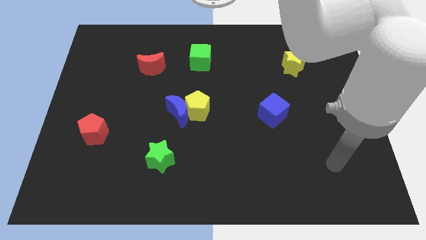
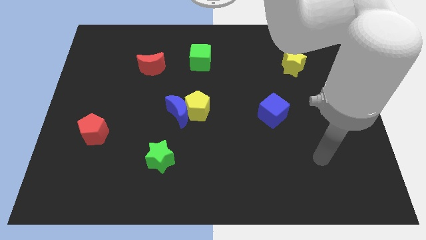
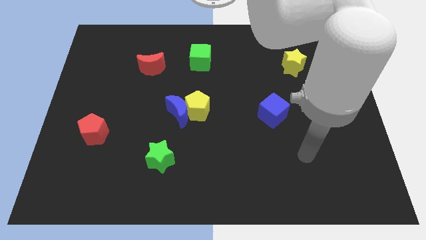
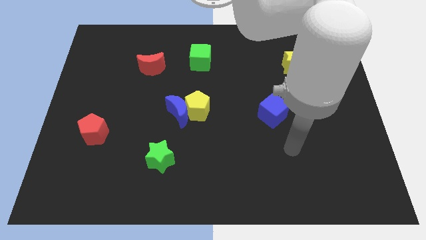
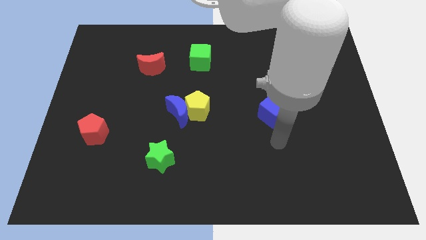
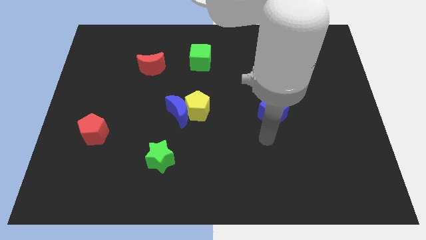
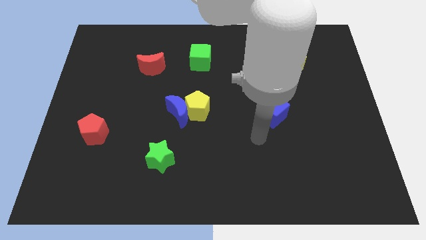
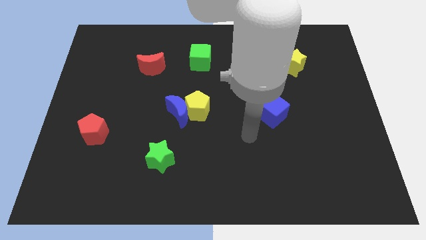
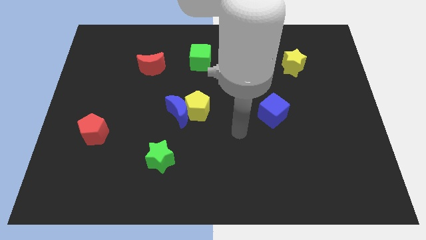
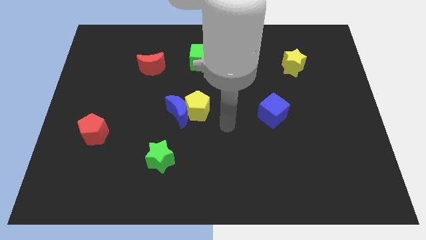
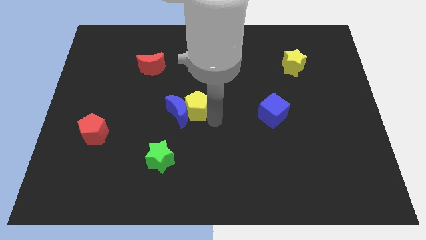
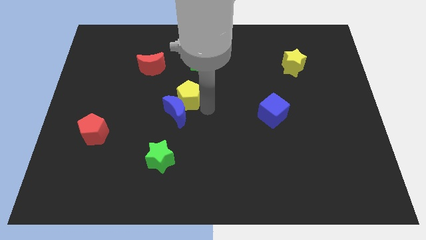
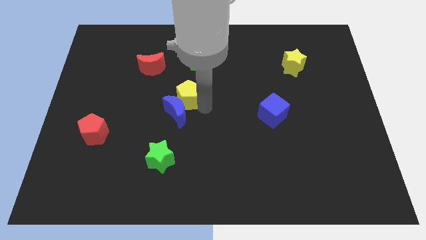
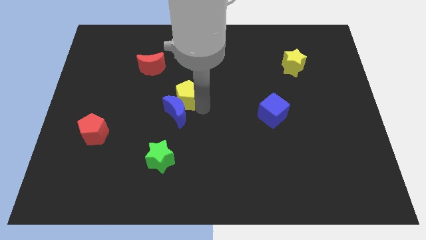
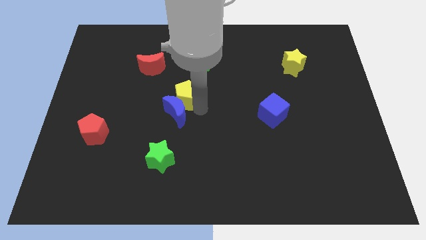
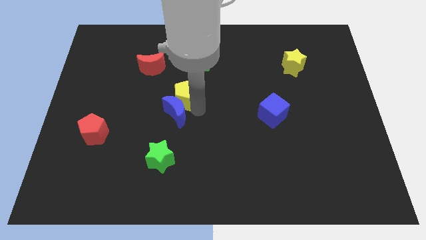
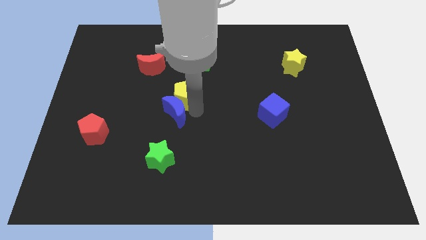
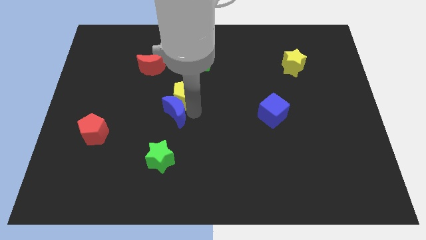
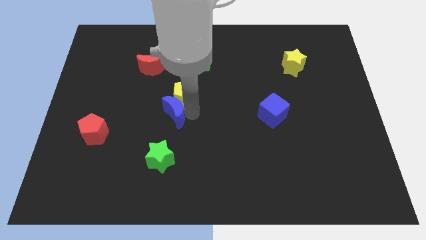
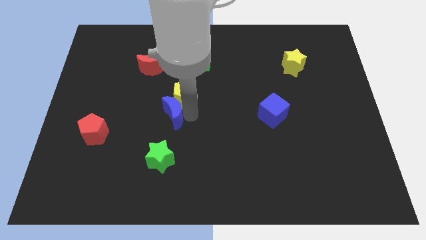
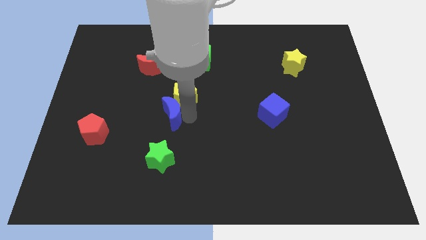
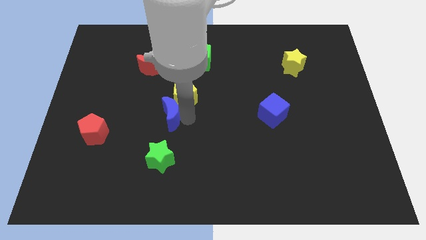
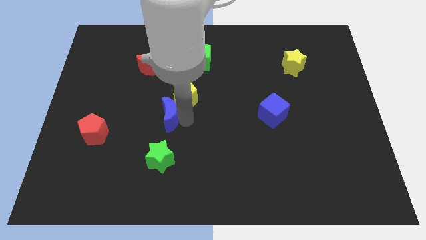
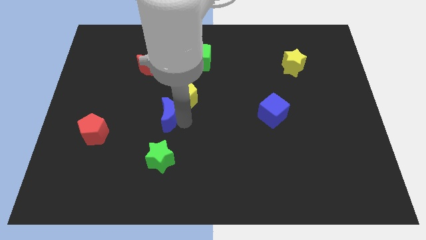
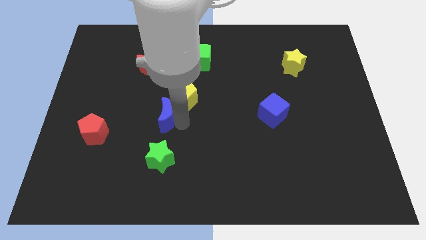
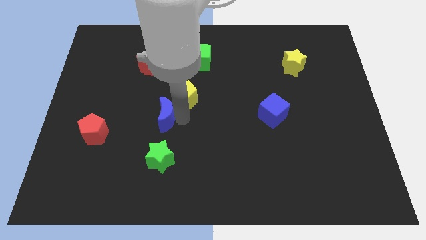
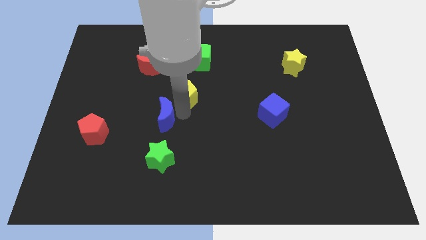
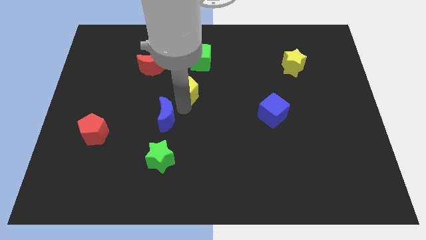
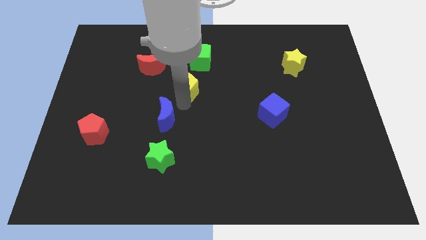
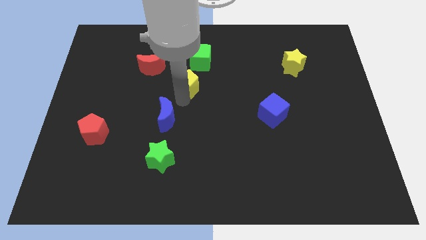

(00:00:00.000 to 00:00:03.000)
move the blue moon away from the yellow pentagon

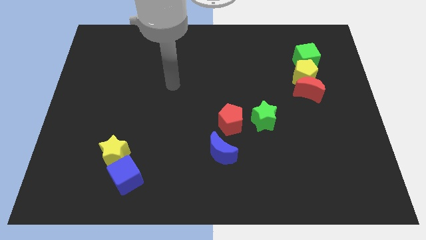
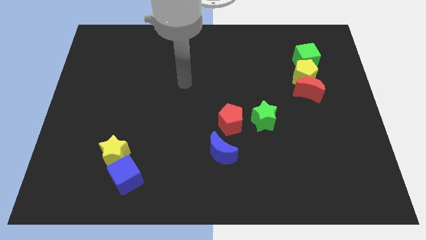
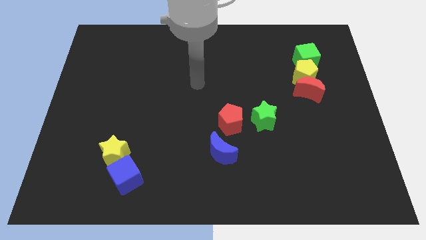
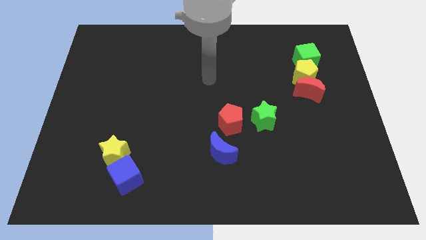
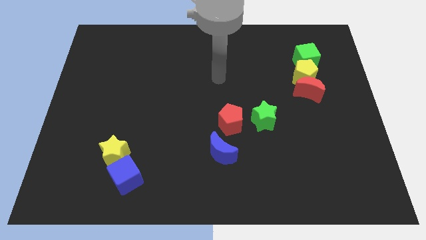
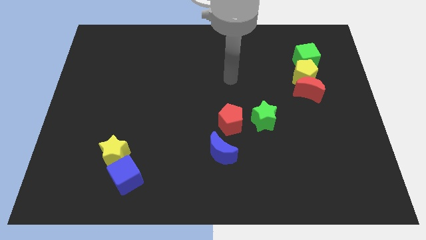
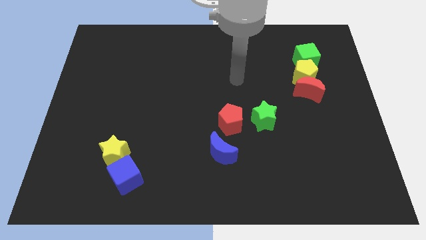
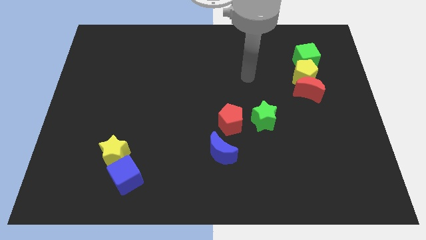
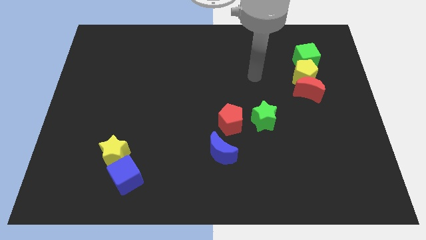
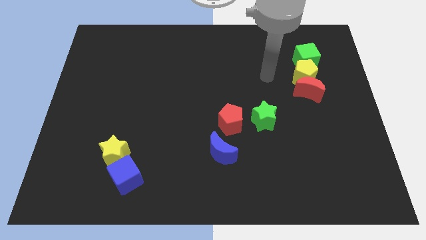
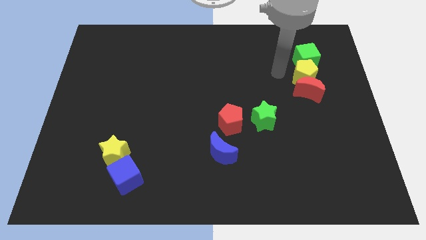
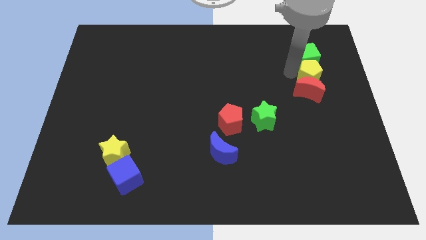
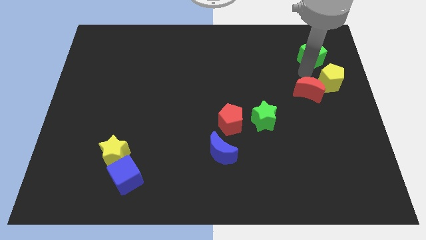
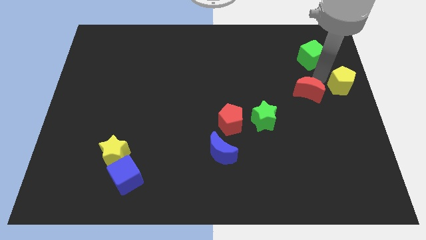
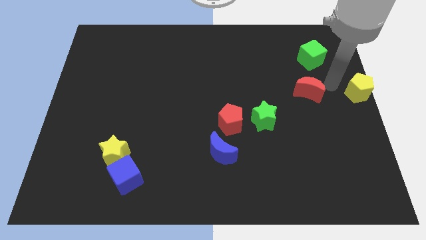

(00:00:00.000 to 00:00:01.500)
move the red moon away from the yellow pentagon

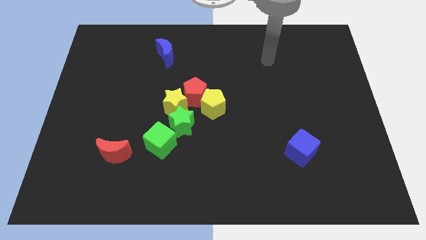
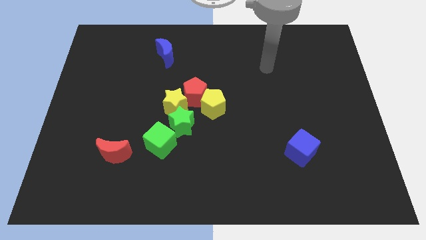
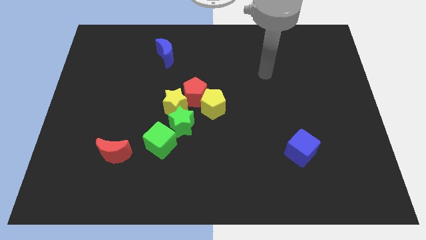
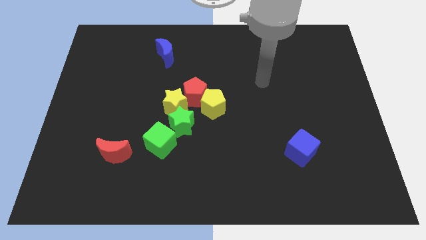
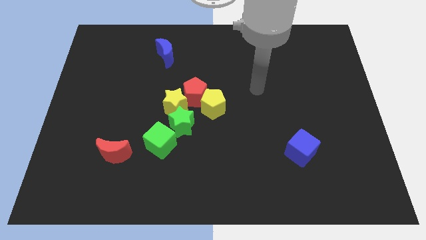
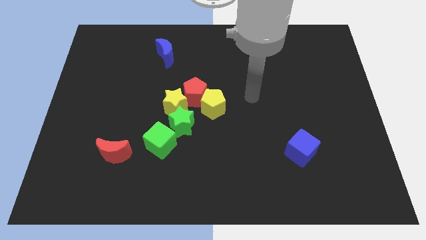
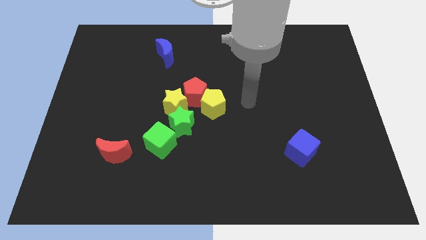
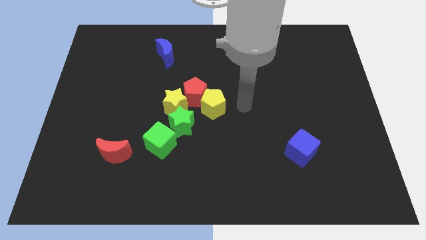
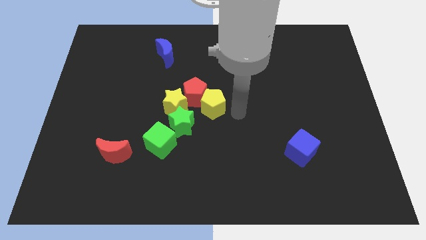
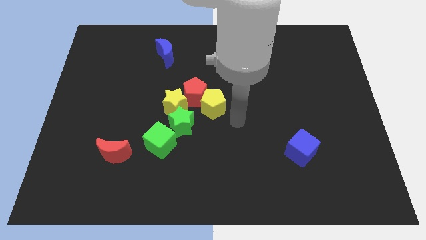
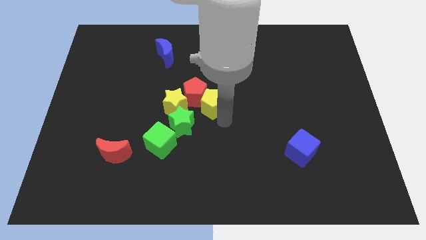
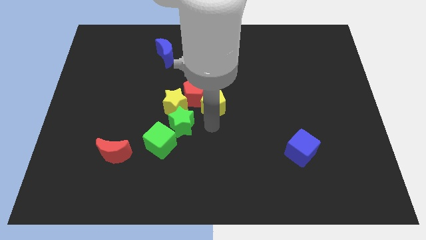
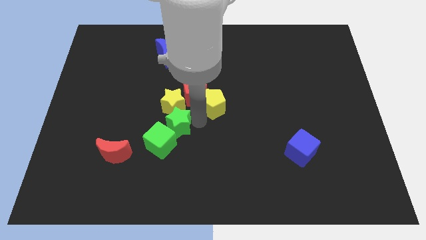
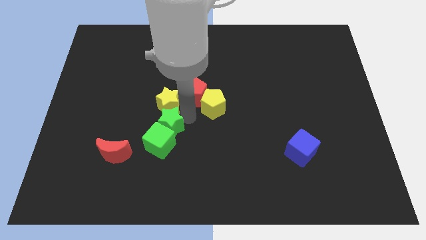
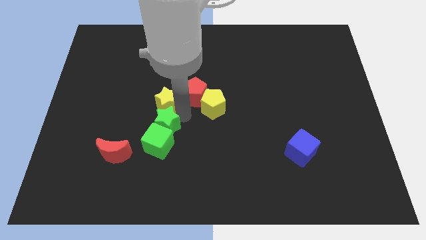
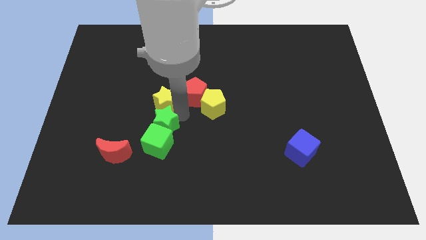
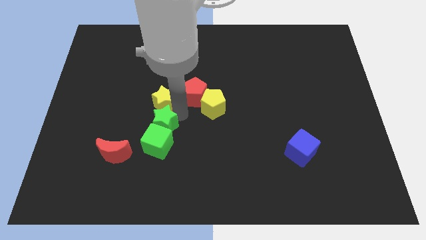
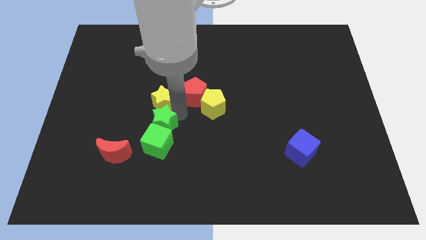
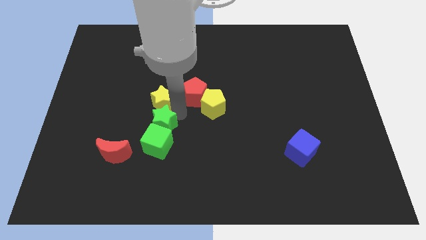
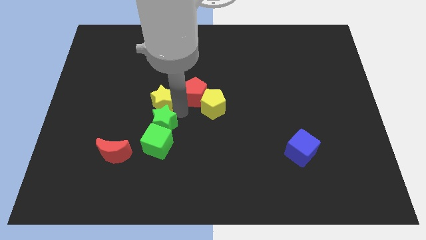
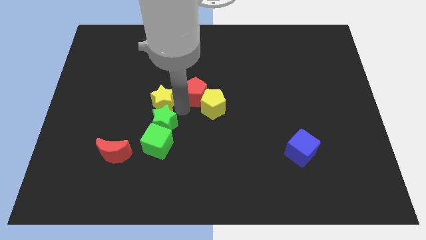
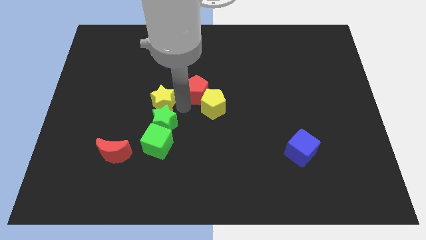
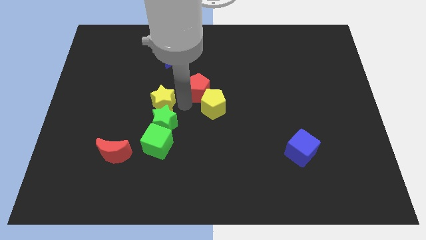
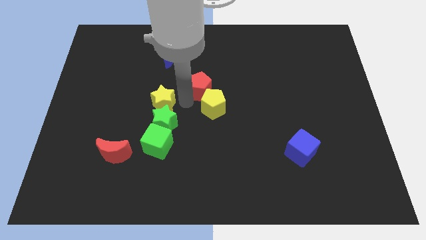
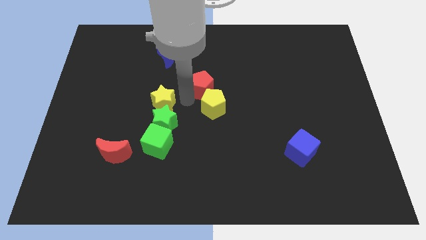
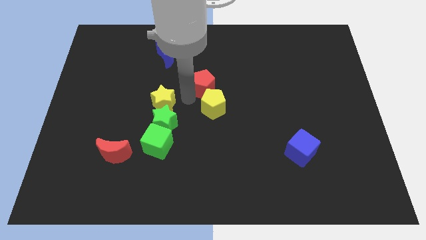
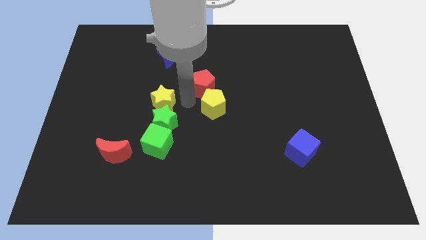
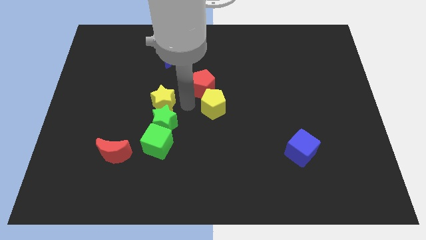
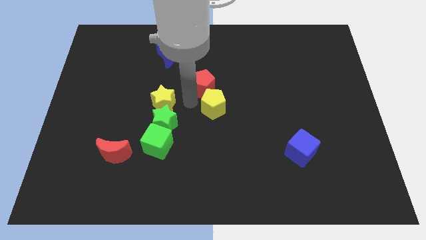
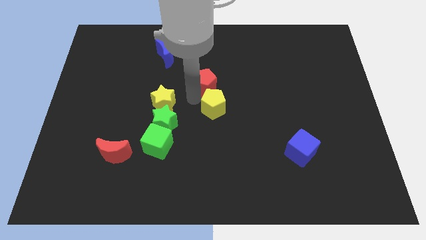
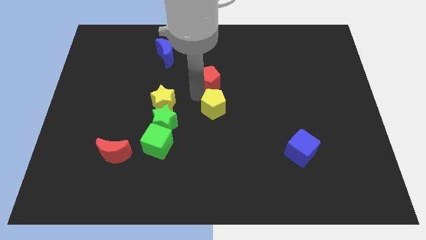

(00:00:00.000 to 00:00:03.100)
move the red pentagon away from the yellow pentagon, yellow star, and green star

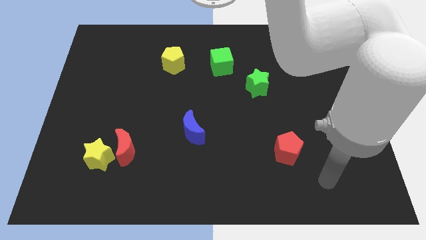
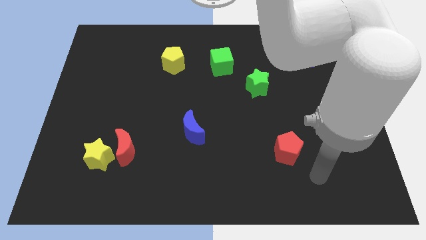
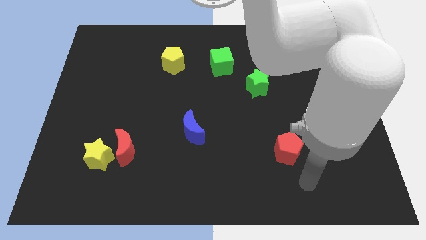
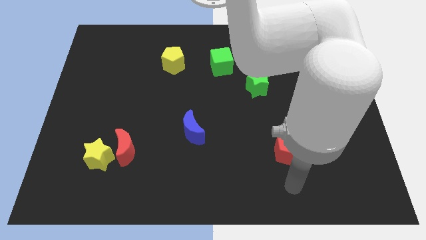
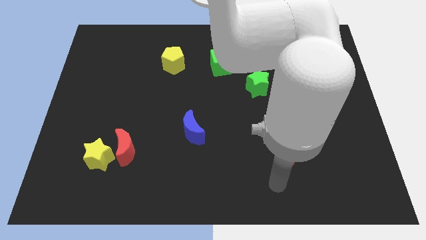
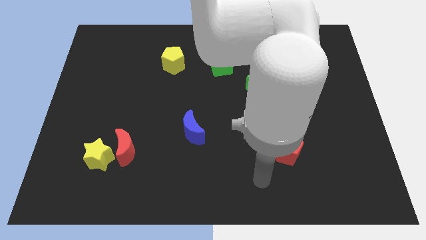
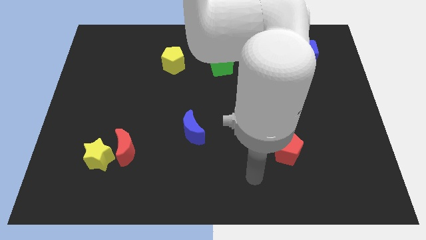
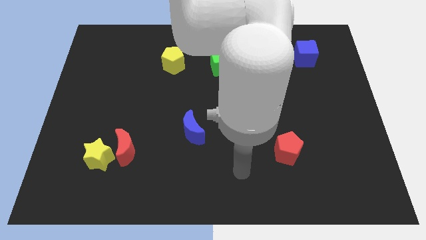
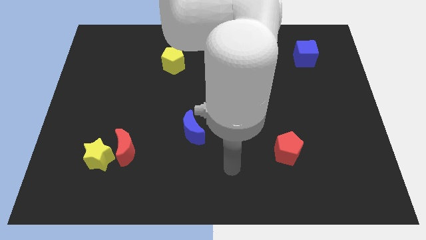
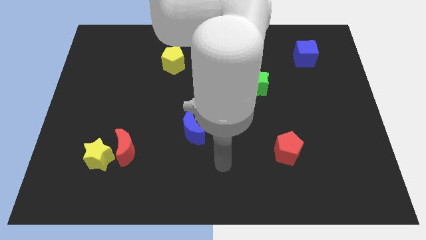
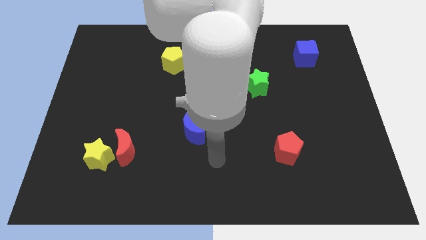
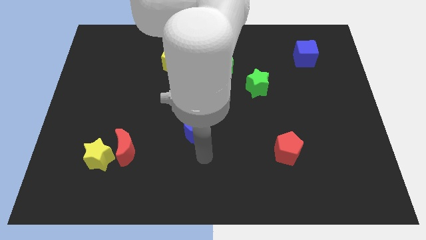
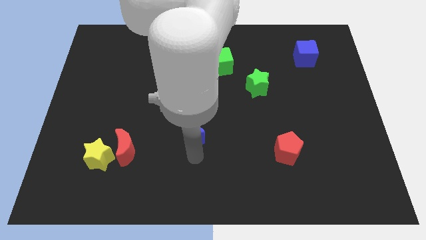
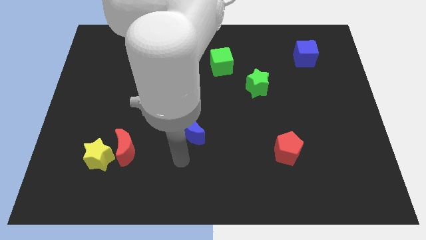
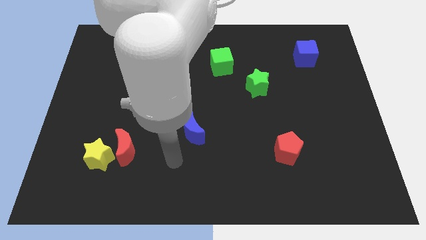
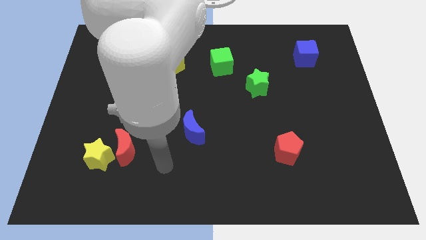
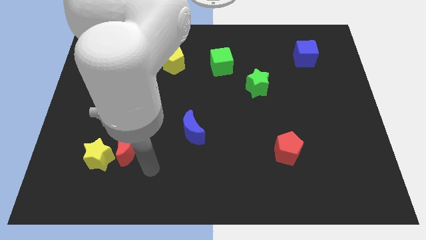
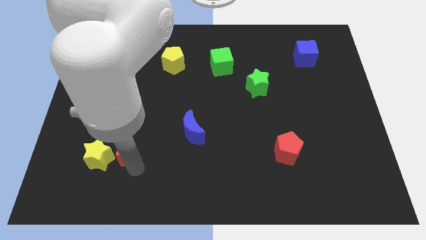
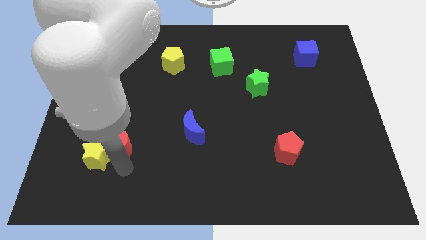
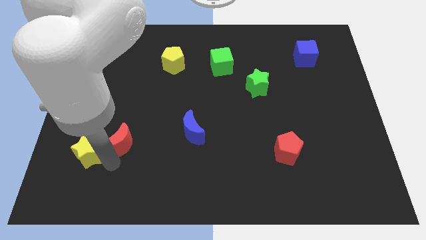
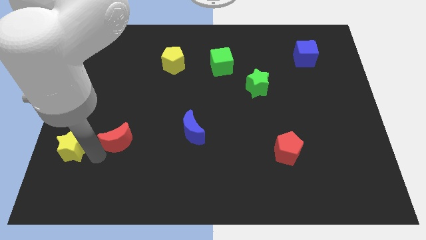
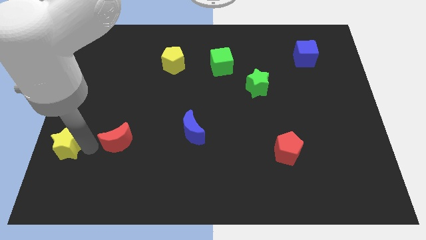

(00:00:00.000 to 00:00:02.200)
move the red moon away from the yellow star
